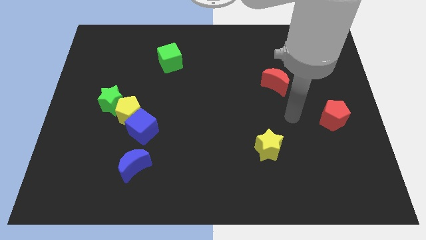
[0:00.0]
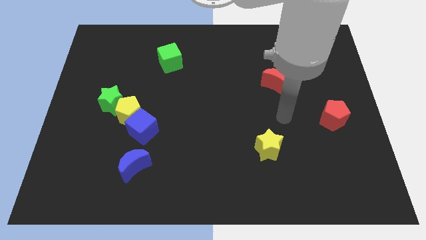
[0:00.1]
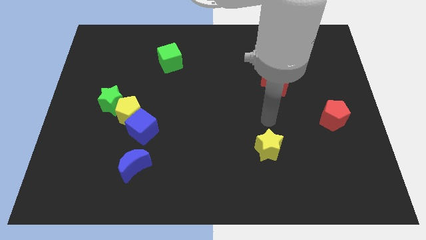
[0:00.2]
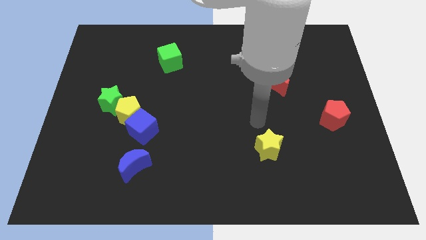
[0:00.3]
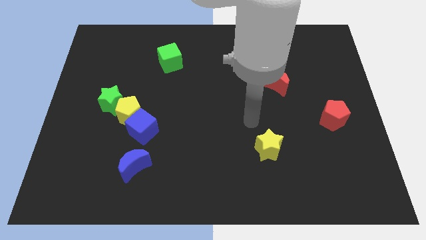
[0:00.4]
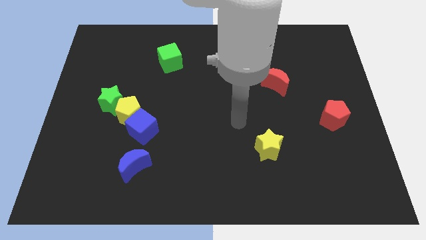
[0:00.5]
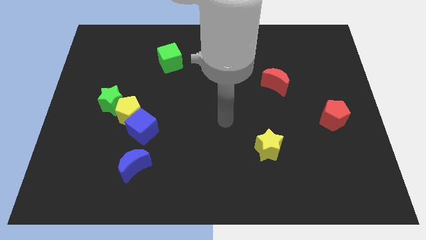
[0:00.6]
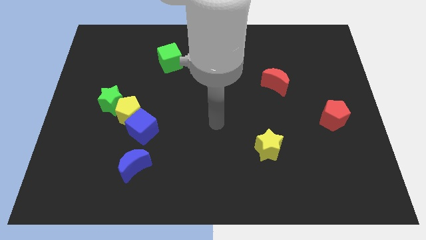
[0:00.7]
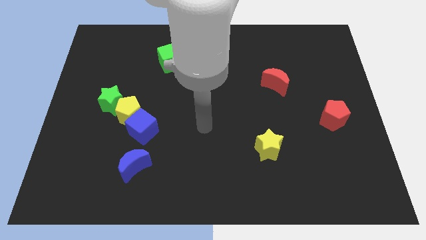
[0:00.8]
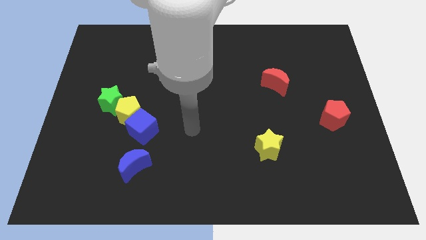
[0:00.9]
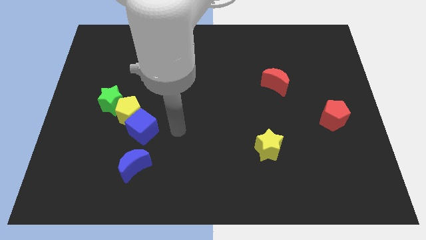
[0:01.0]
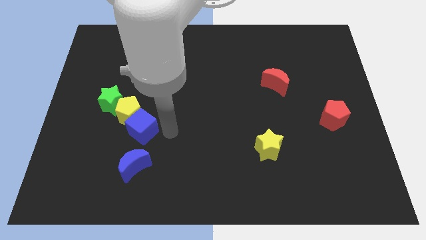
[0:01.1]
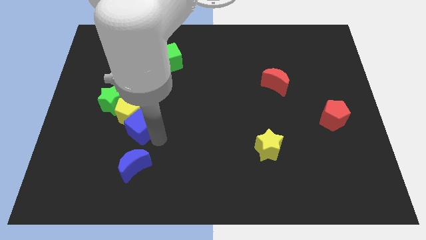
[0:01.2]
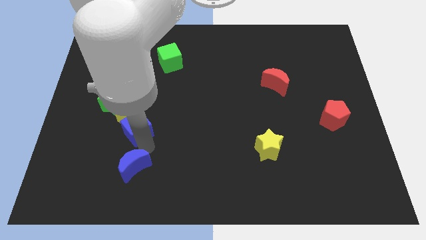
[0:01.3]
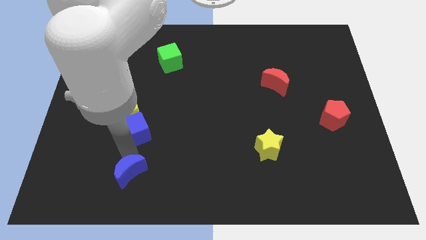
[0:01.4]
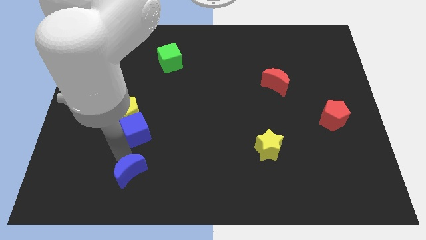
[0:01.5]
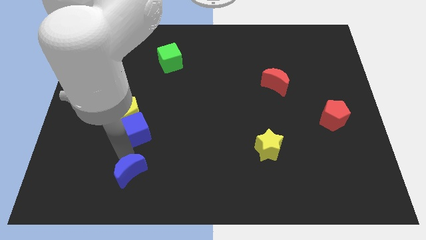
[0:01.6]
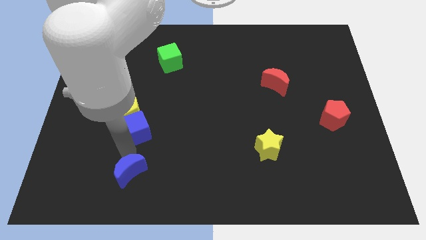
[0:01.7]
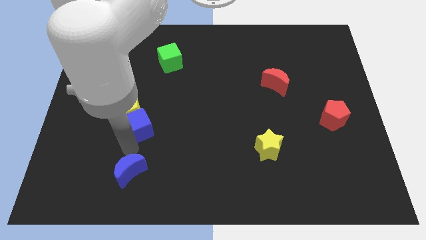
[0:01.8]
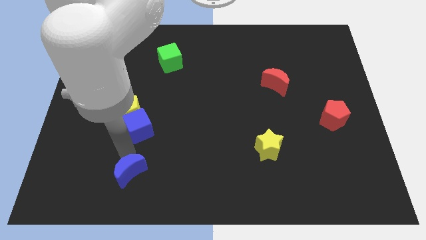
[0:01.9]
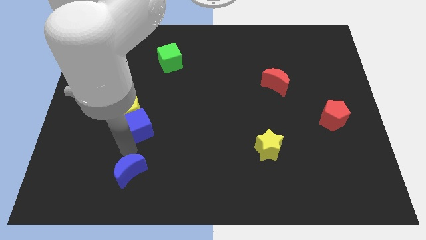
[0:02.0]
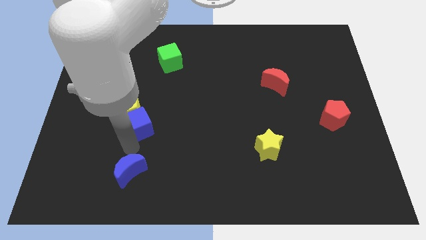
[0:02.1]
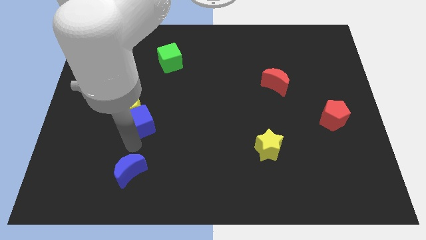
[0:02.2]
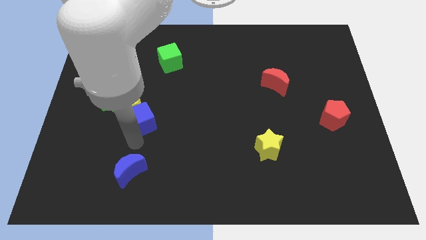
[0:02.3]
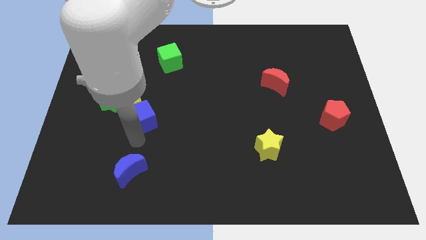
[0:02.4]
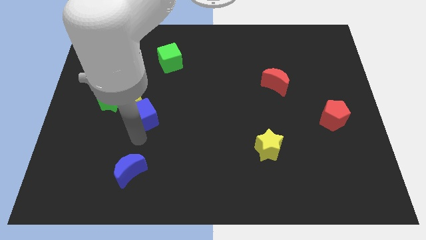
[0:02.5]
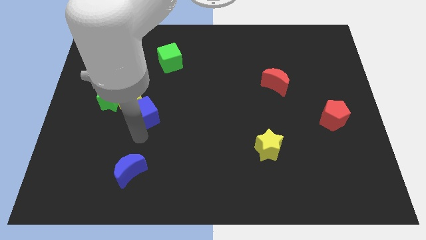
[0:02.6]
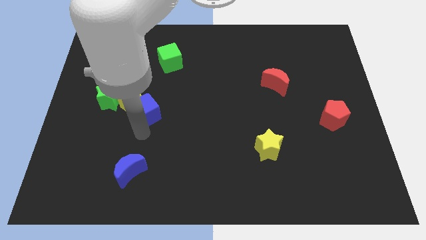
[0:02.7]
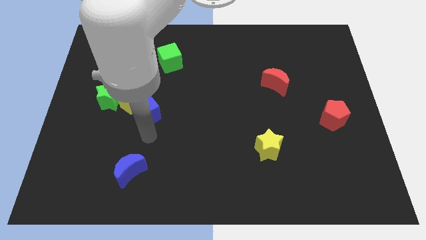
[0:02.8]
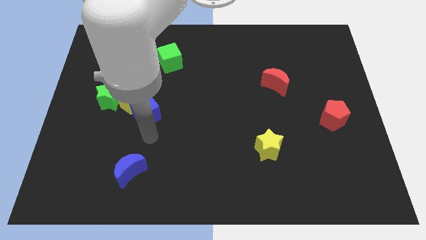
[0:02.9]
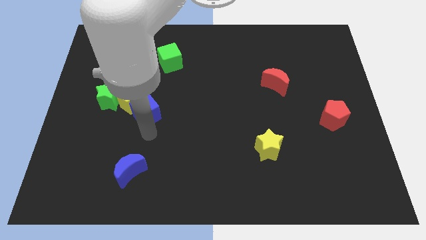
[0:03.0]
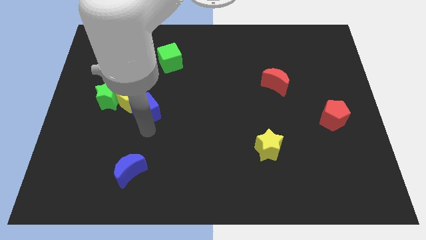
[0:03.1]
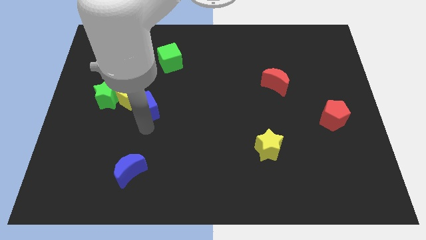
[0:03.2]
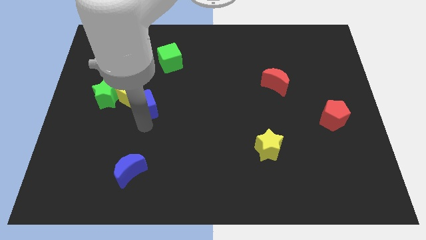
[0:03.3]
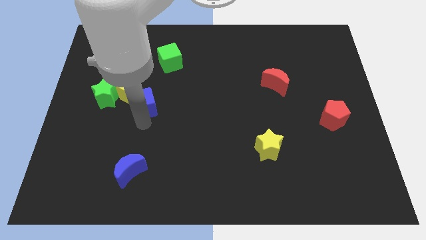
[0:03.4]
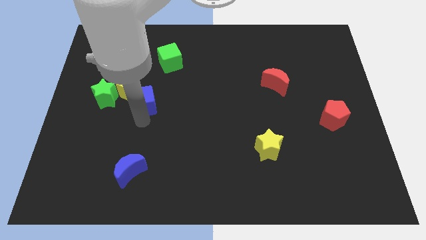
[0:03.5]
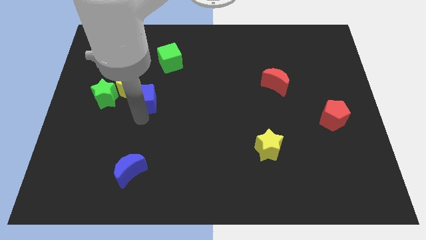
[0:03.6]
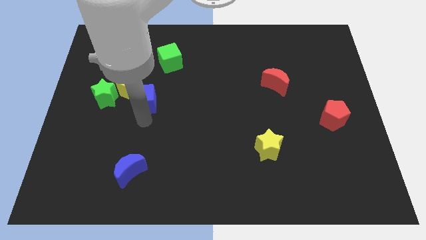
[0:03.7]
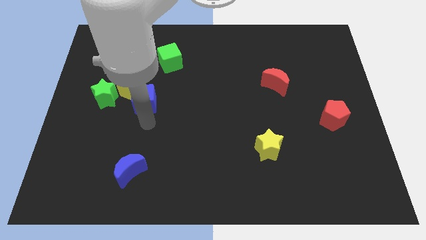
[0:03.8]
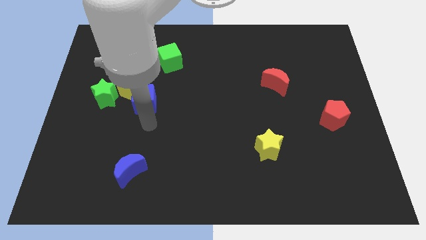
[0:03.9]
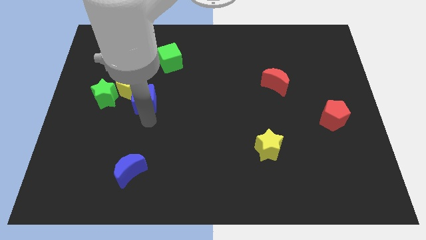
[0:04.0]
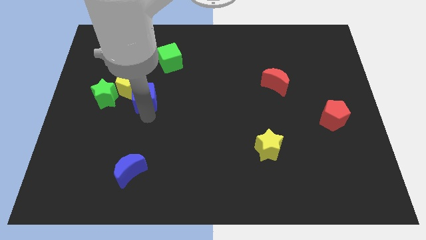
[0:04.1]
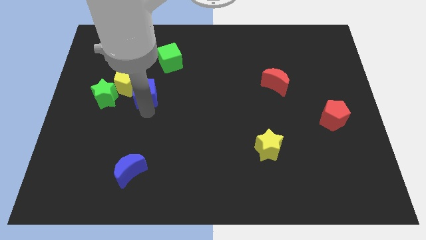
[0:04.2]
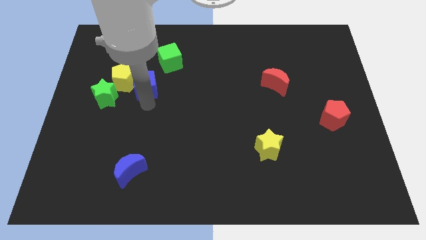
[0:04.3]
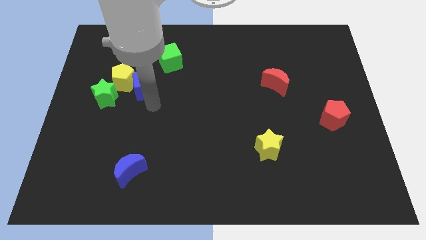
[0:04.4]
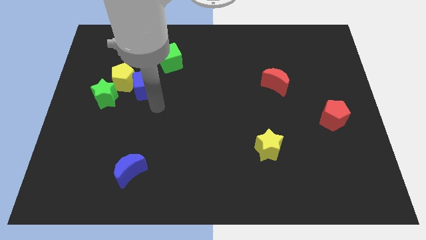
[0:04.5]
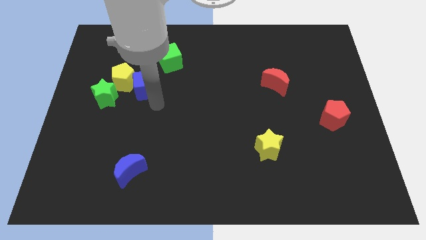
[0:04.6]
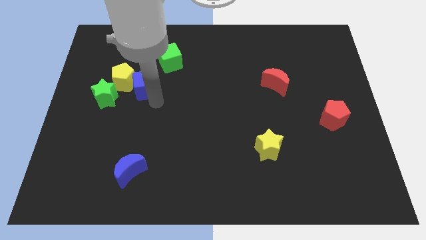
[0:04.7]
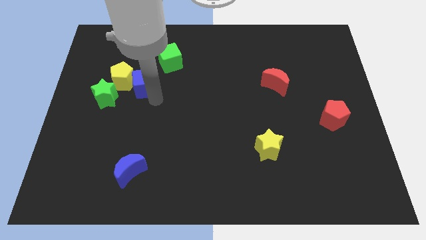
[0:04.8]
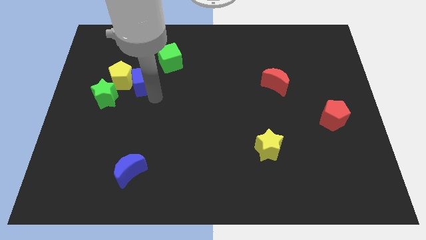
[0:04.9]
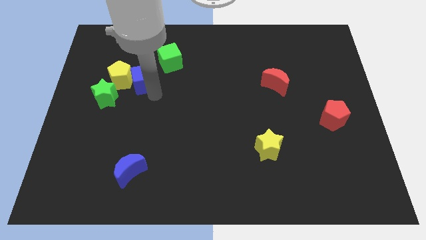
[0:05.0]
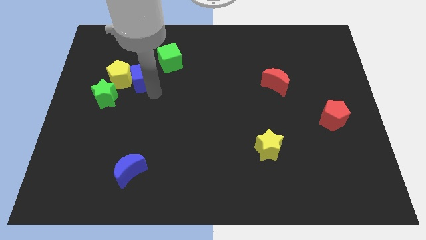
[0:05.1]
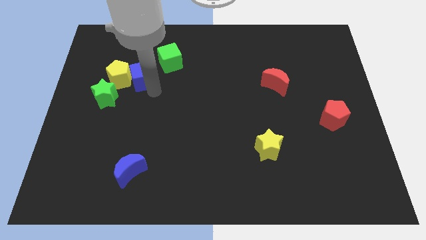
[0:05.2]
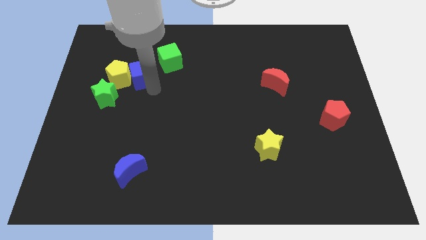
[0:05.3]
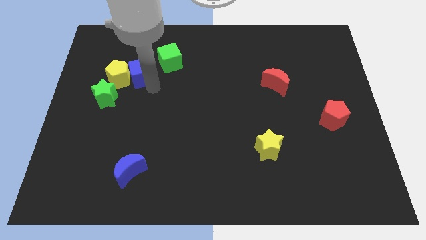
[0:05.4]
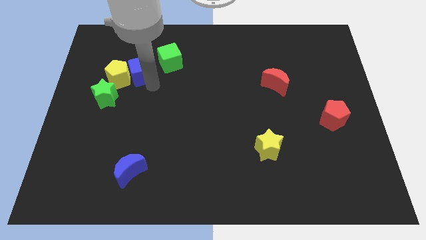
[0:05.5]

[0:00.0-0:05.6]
put the blue cube to the left of the green cube
